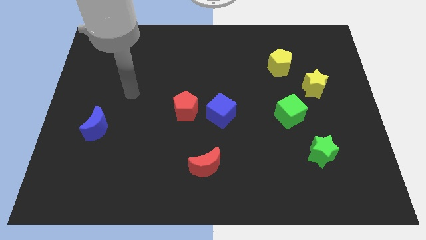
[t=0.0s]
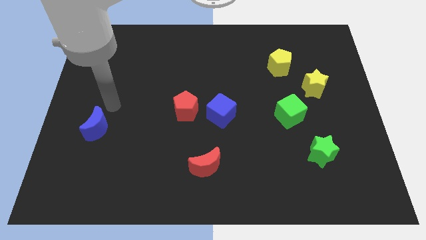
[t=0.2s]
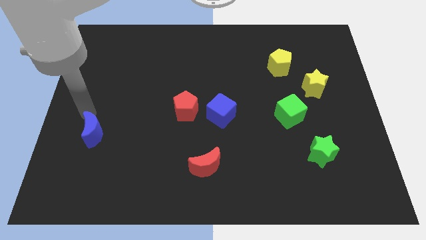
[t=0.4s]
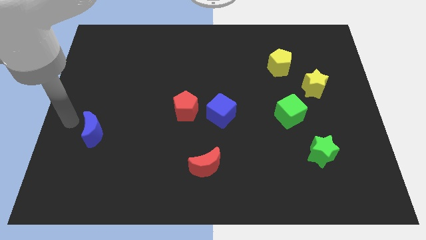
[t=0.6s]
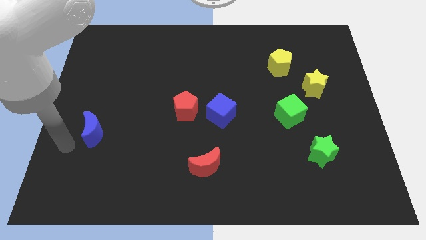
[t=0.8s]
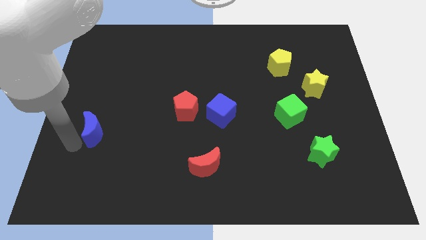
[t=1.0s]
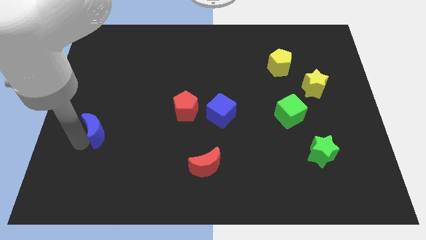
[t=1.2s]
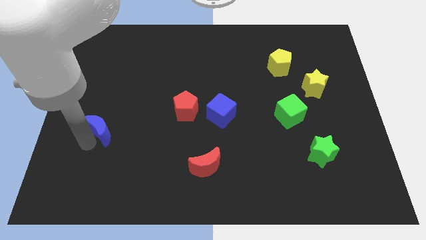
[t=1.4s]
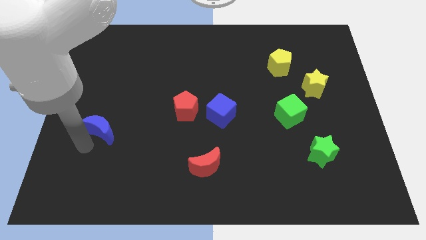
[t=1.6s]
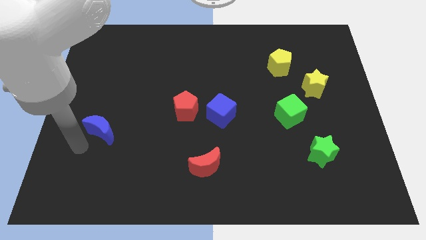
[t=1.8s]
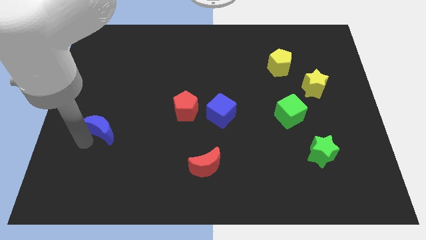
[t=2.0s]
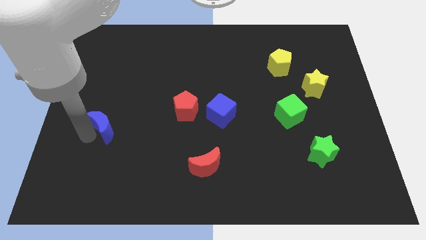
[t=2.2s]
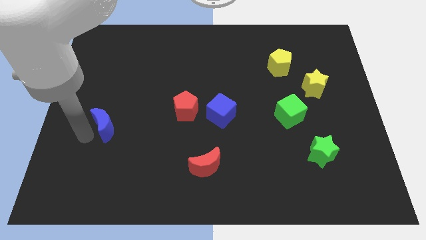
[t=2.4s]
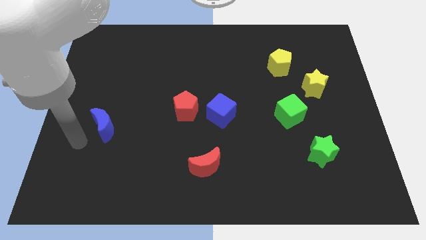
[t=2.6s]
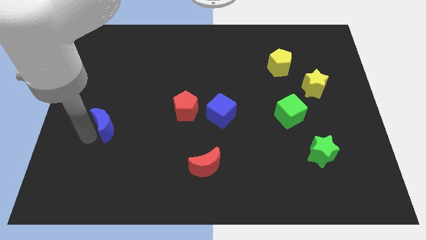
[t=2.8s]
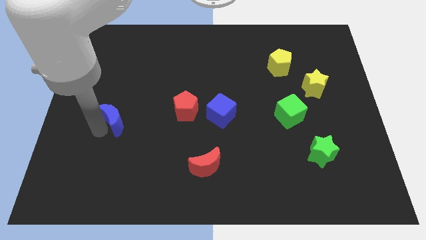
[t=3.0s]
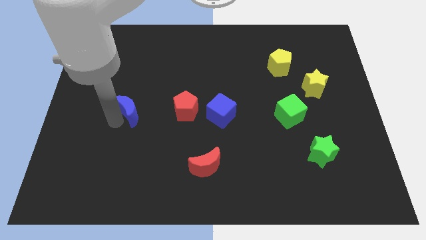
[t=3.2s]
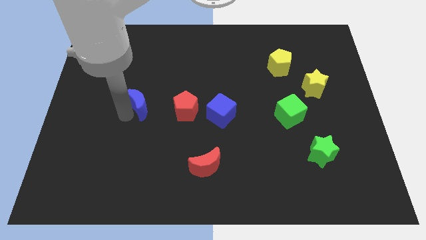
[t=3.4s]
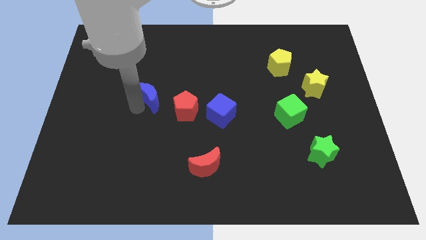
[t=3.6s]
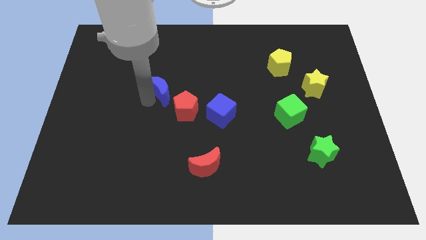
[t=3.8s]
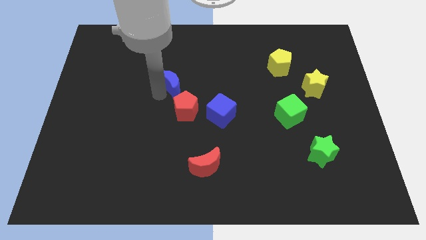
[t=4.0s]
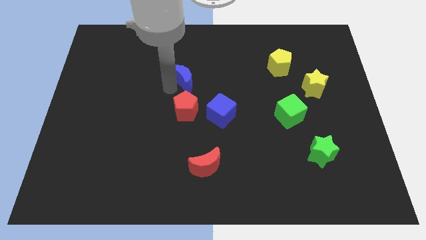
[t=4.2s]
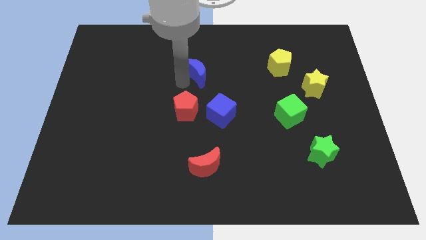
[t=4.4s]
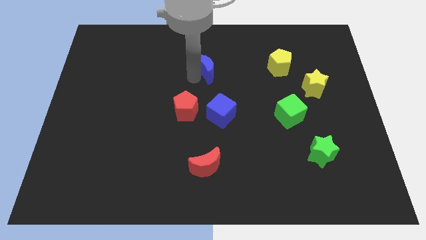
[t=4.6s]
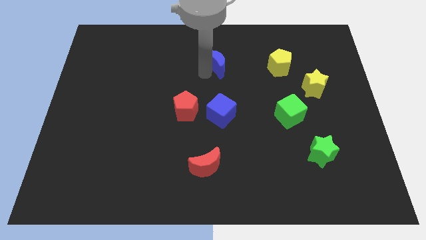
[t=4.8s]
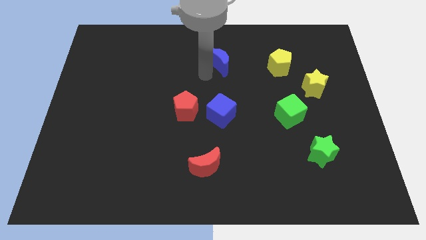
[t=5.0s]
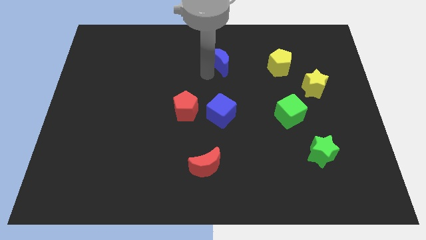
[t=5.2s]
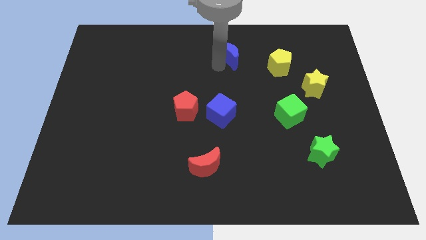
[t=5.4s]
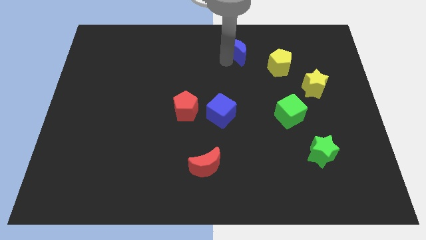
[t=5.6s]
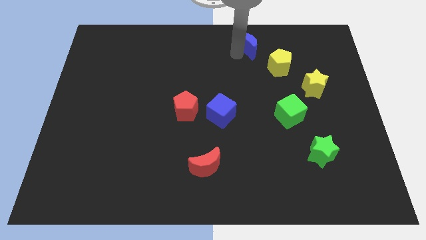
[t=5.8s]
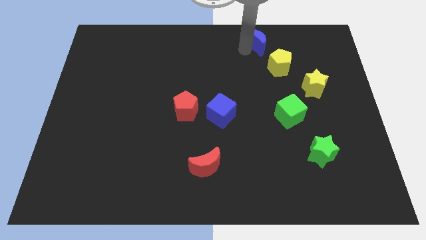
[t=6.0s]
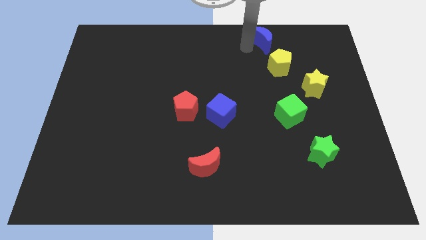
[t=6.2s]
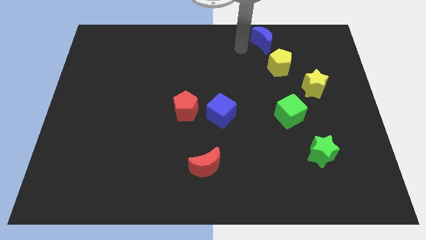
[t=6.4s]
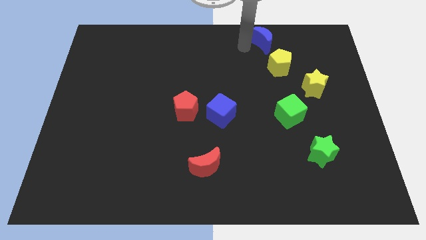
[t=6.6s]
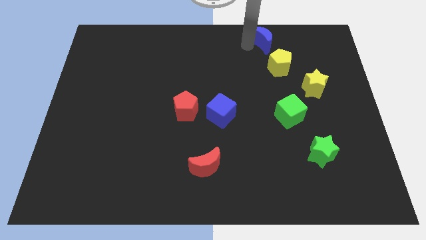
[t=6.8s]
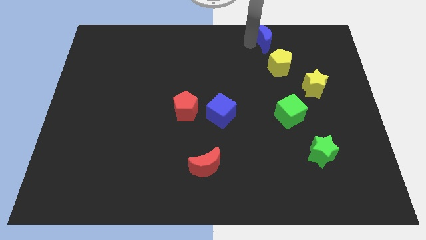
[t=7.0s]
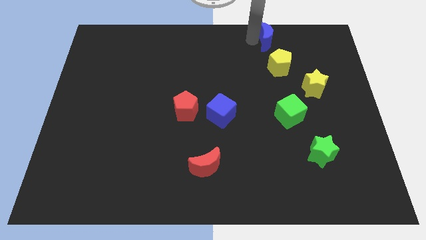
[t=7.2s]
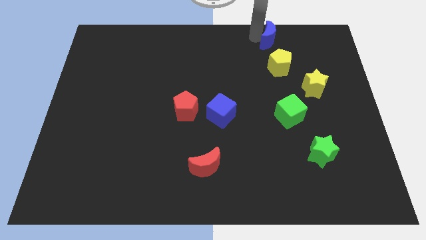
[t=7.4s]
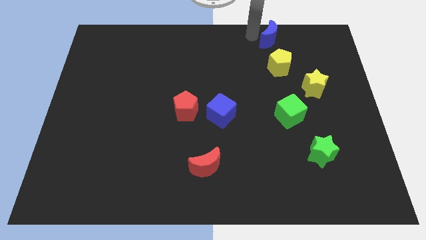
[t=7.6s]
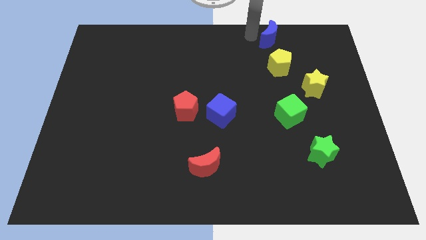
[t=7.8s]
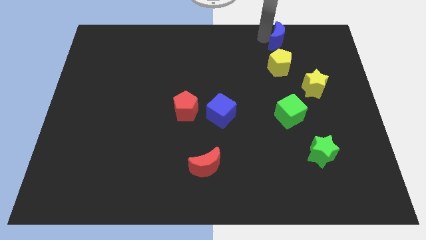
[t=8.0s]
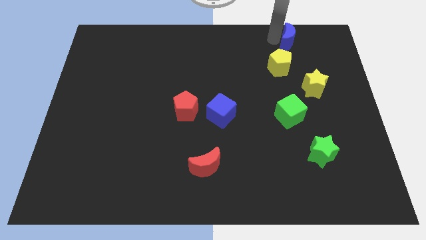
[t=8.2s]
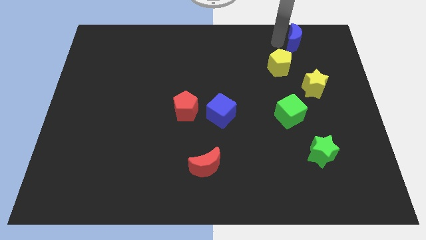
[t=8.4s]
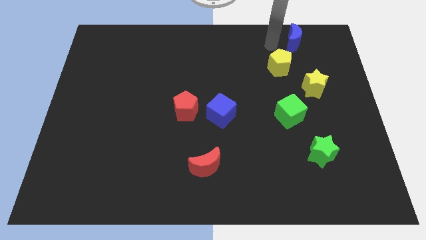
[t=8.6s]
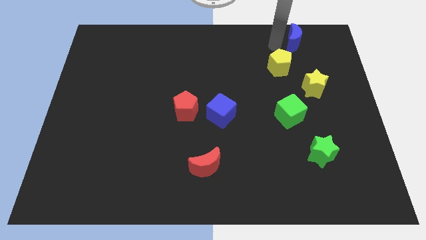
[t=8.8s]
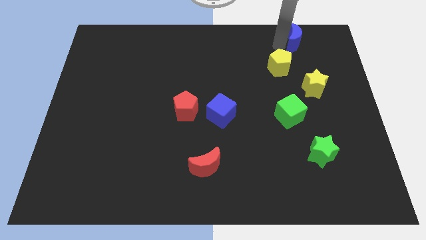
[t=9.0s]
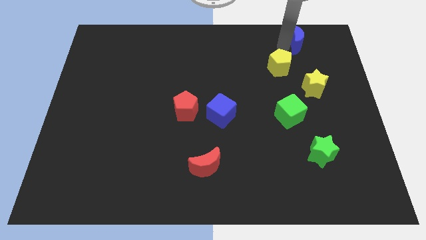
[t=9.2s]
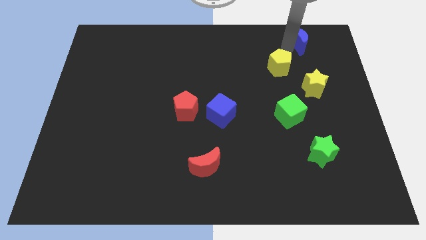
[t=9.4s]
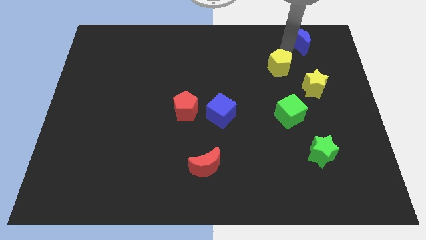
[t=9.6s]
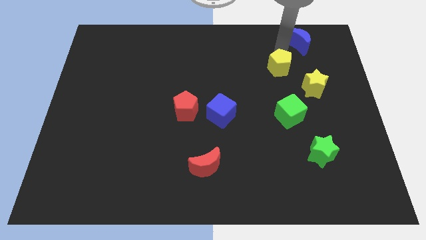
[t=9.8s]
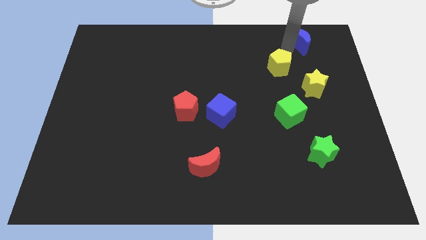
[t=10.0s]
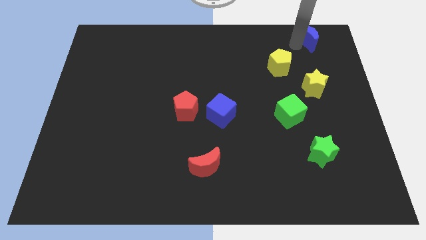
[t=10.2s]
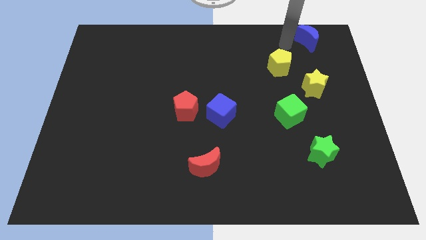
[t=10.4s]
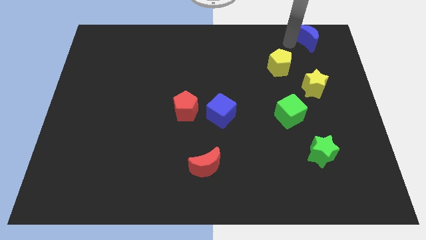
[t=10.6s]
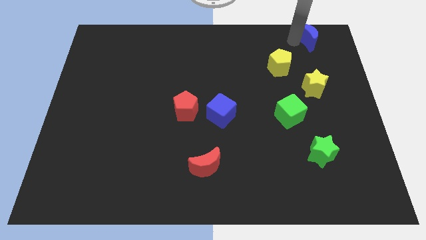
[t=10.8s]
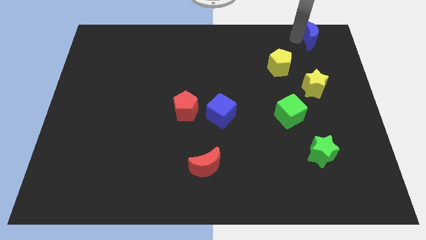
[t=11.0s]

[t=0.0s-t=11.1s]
move the blue moon to the top right of the board
